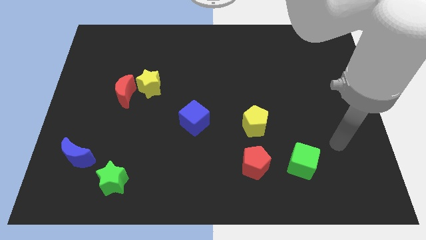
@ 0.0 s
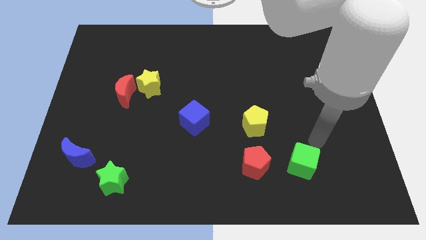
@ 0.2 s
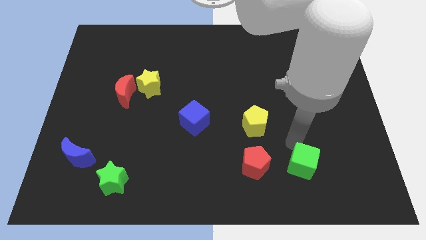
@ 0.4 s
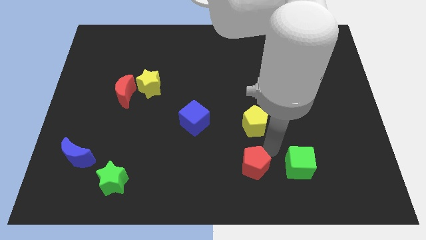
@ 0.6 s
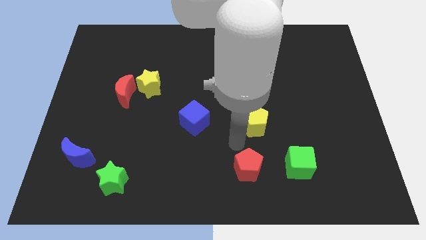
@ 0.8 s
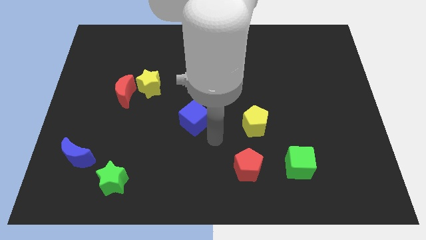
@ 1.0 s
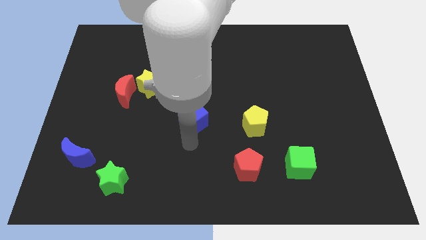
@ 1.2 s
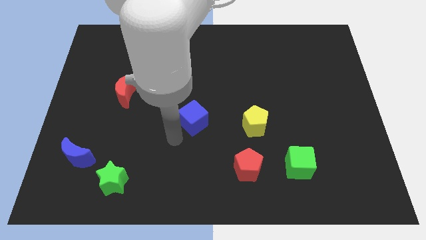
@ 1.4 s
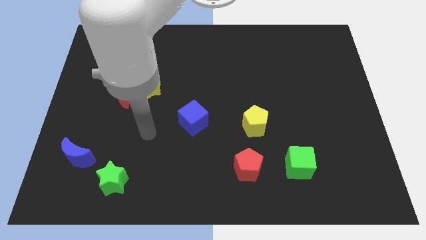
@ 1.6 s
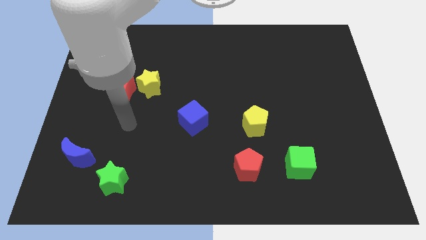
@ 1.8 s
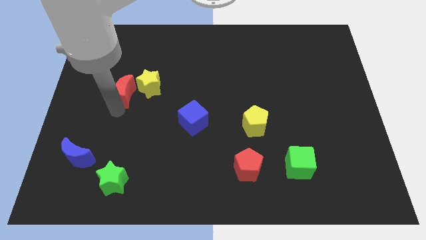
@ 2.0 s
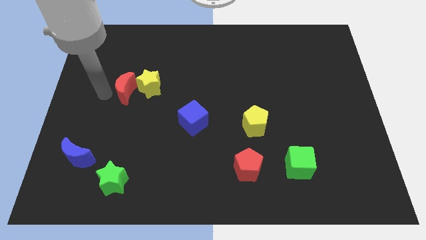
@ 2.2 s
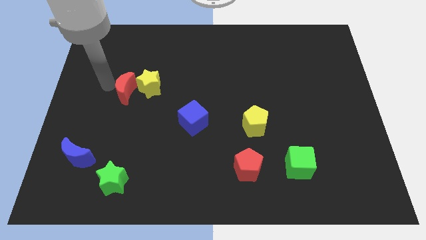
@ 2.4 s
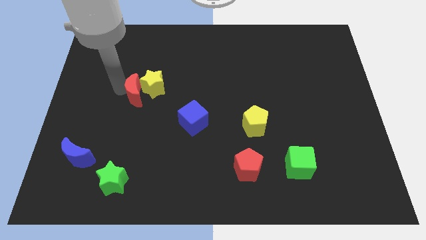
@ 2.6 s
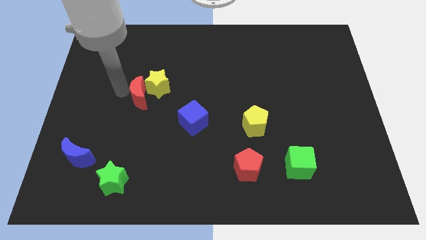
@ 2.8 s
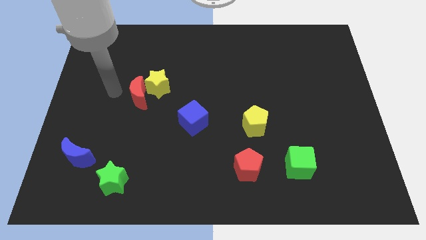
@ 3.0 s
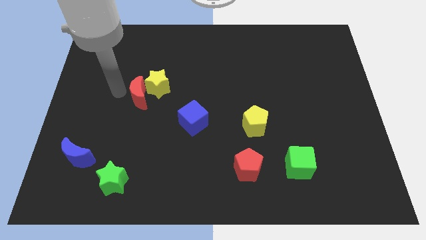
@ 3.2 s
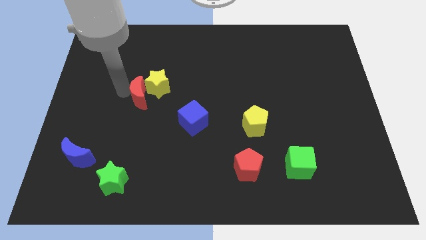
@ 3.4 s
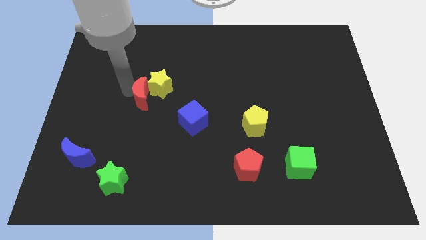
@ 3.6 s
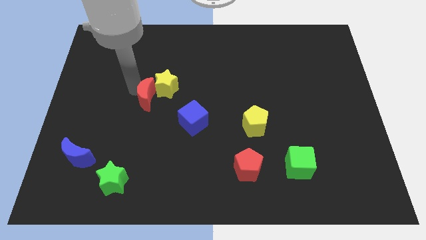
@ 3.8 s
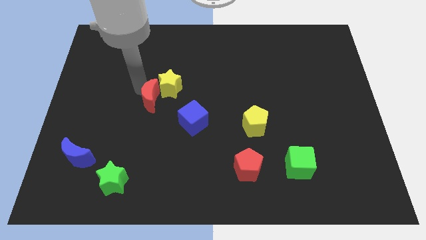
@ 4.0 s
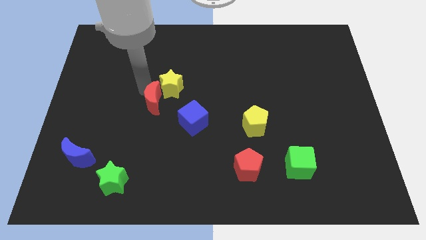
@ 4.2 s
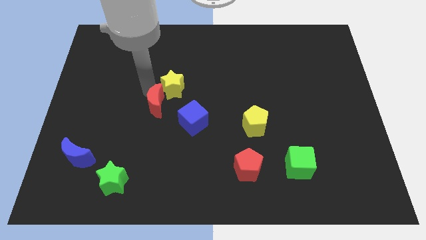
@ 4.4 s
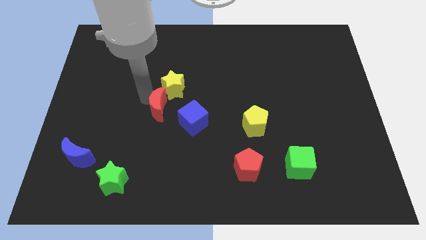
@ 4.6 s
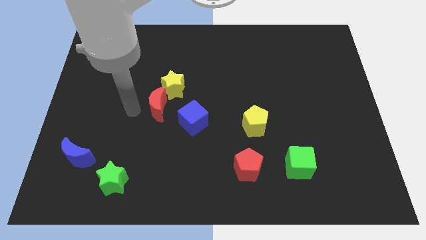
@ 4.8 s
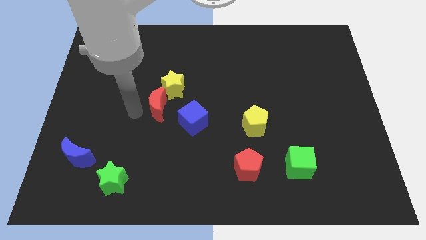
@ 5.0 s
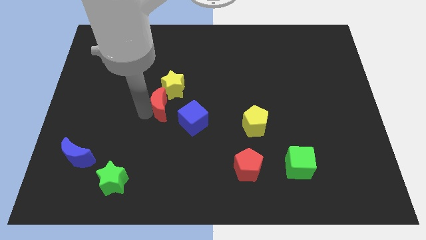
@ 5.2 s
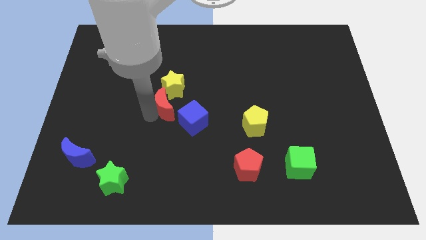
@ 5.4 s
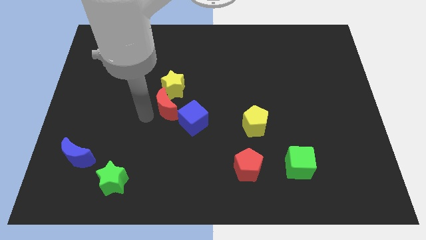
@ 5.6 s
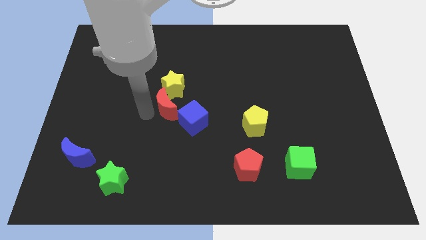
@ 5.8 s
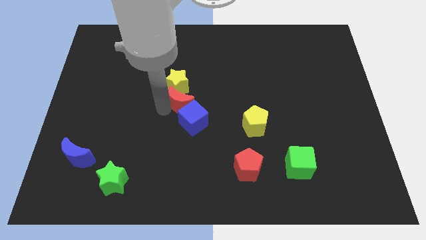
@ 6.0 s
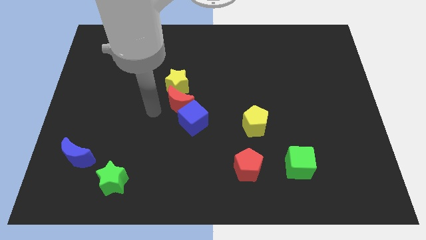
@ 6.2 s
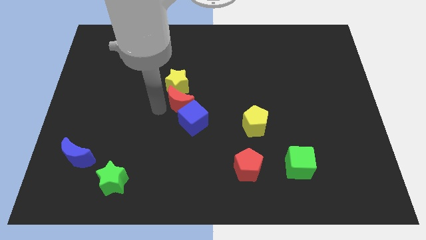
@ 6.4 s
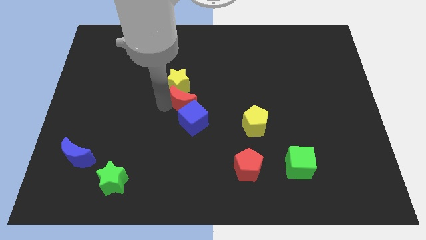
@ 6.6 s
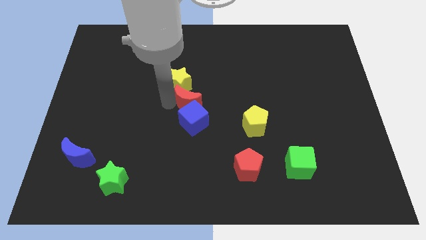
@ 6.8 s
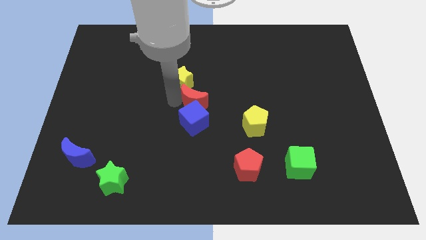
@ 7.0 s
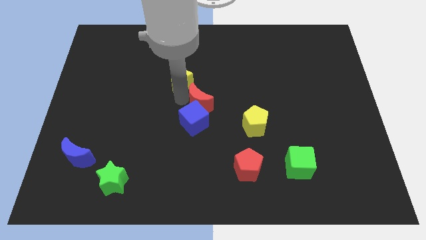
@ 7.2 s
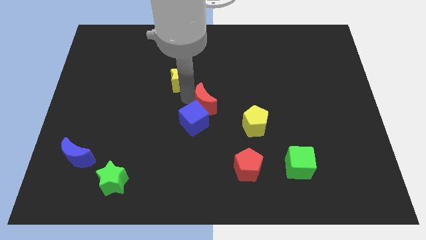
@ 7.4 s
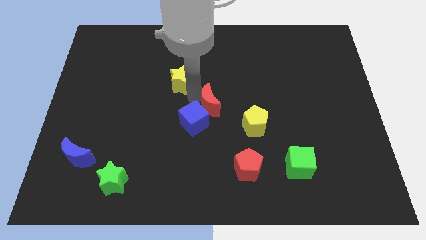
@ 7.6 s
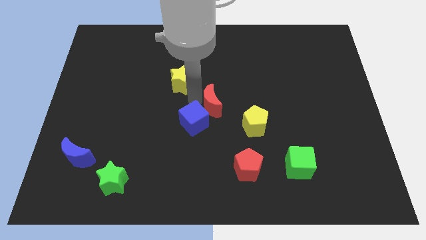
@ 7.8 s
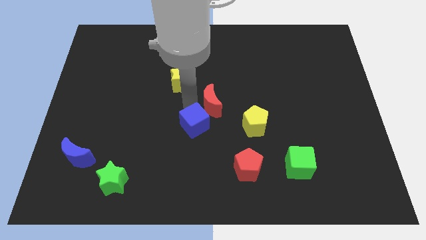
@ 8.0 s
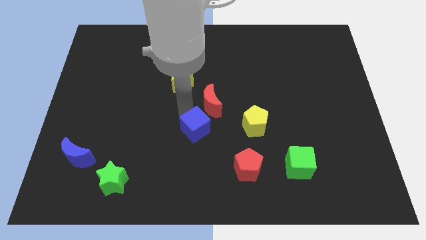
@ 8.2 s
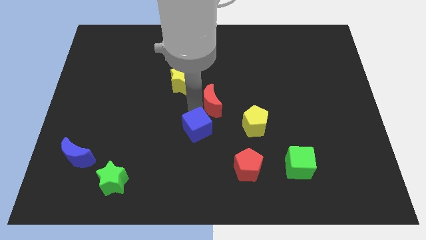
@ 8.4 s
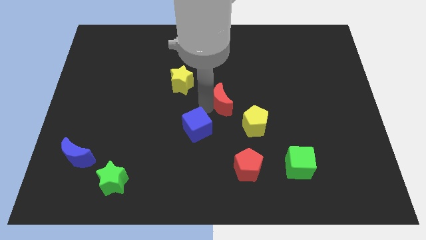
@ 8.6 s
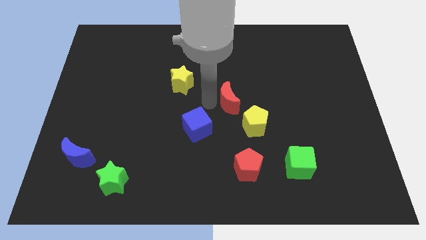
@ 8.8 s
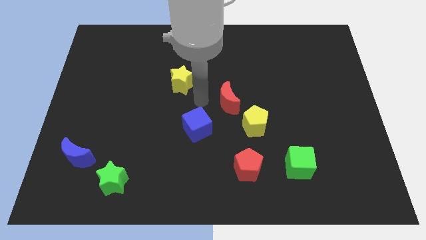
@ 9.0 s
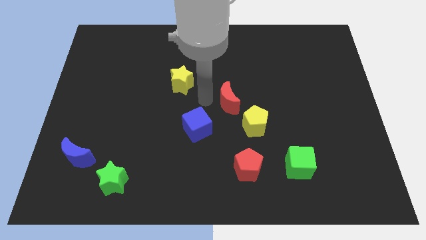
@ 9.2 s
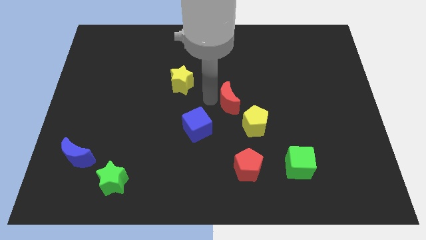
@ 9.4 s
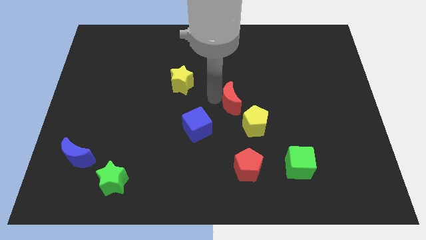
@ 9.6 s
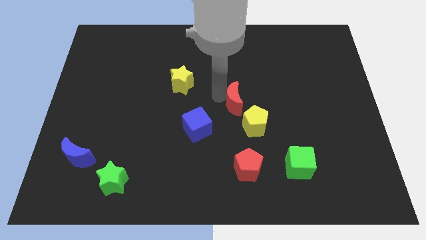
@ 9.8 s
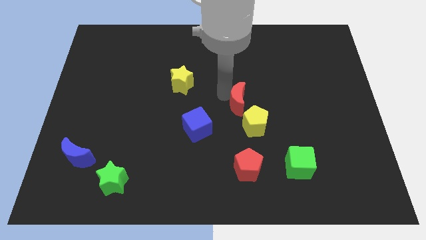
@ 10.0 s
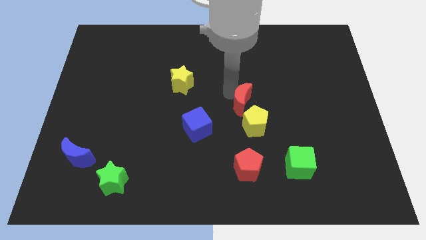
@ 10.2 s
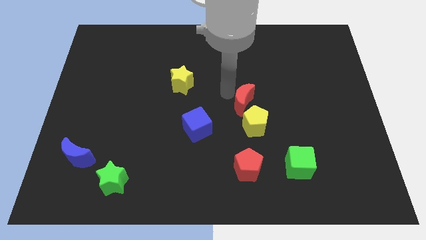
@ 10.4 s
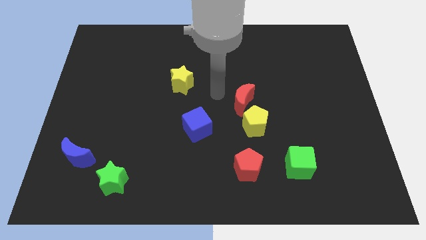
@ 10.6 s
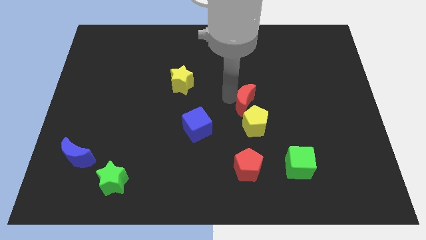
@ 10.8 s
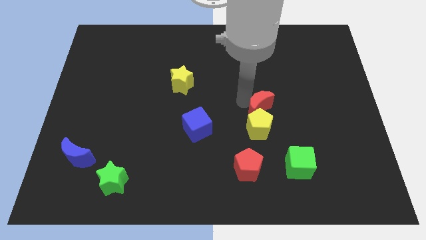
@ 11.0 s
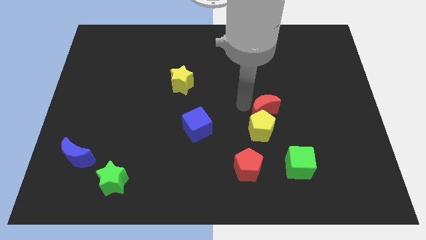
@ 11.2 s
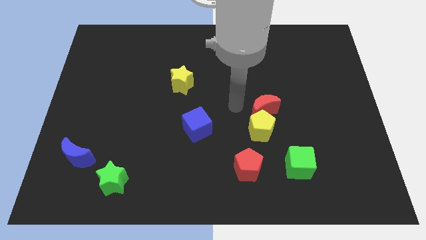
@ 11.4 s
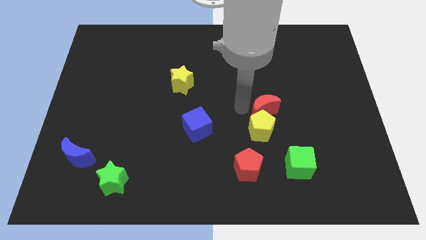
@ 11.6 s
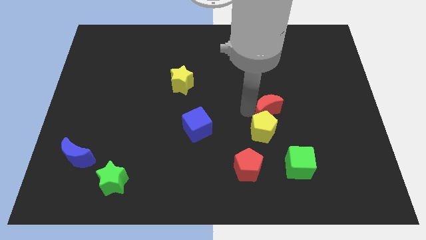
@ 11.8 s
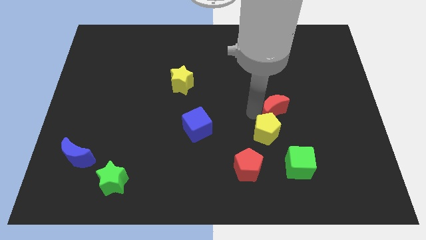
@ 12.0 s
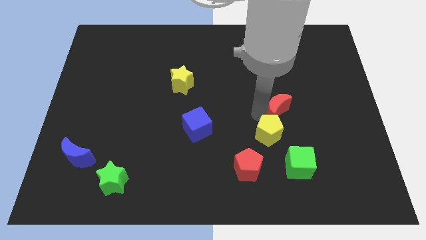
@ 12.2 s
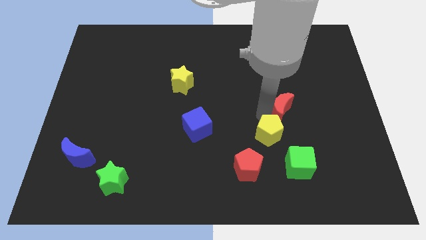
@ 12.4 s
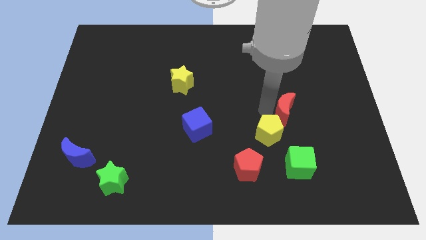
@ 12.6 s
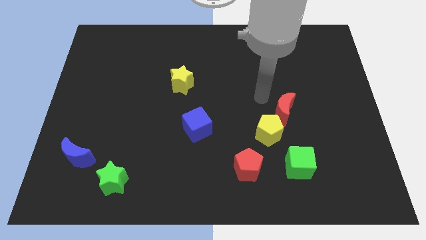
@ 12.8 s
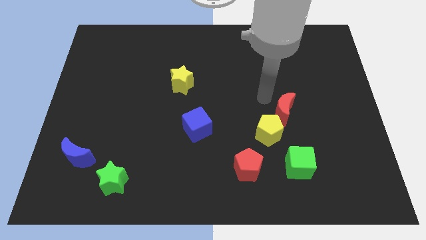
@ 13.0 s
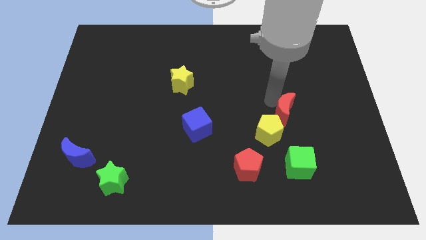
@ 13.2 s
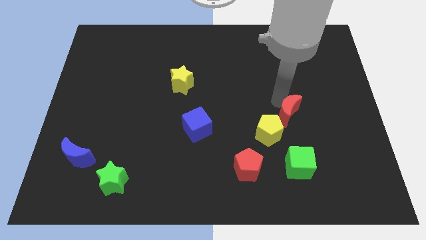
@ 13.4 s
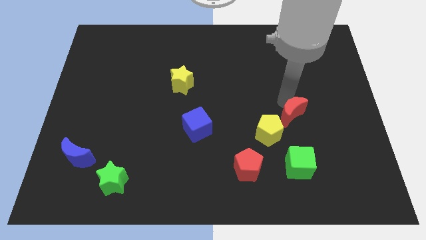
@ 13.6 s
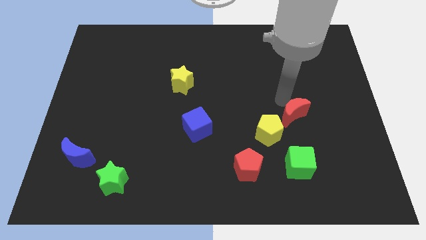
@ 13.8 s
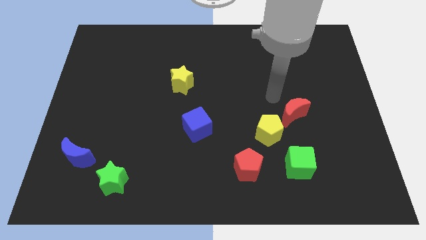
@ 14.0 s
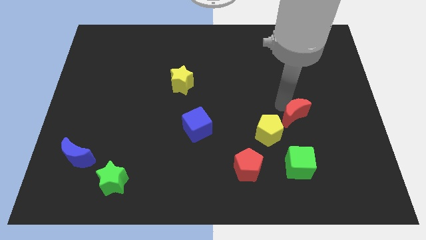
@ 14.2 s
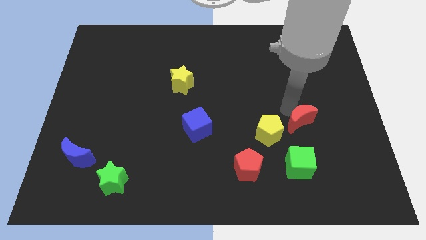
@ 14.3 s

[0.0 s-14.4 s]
move the red moon to the right of the yellow pentagon
